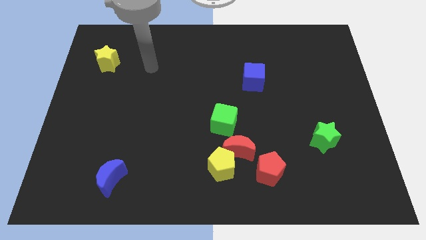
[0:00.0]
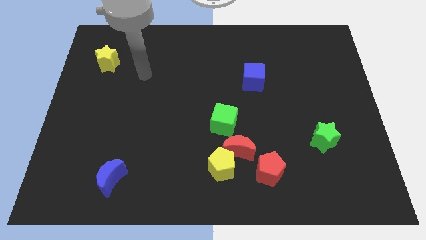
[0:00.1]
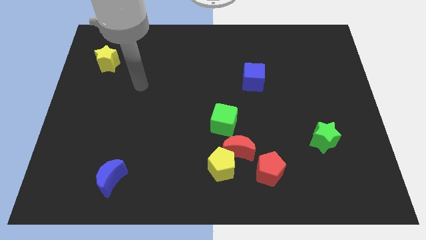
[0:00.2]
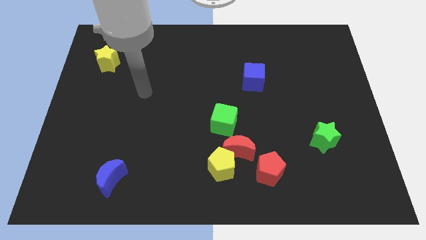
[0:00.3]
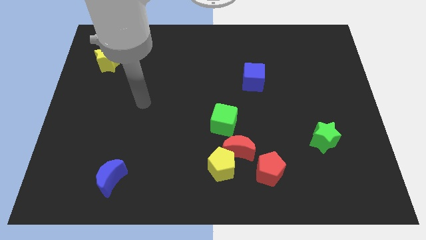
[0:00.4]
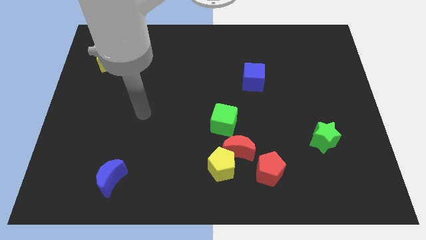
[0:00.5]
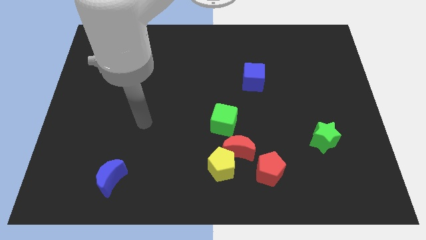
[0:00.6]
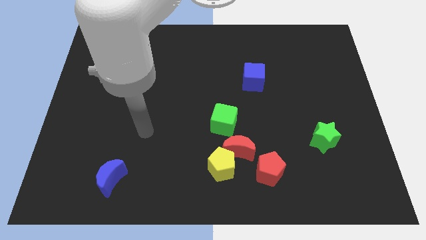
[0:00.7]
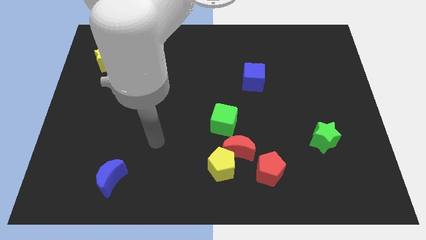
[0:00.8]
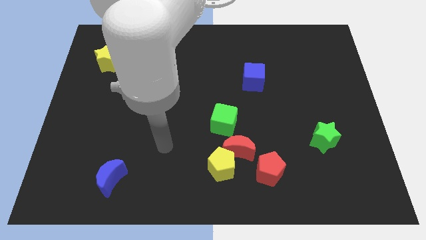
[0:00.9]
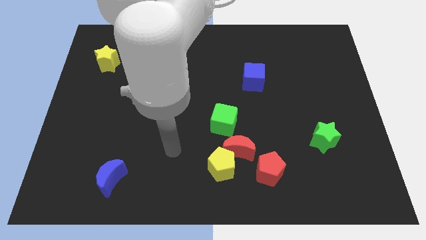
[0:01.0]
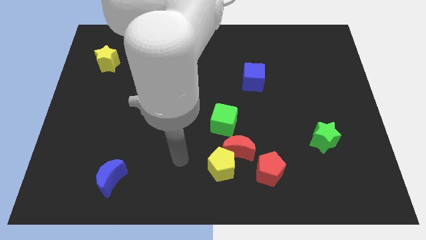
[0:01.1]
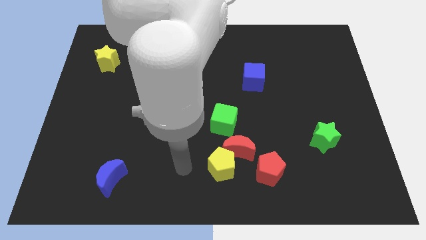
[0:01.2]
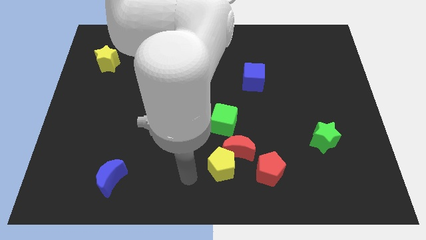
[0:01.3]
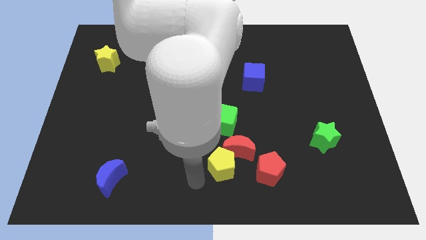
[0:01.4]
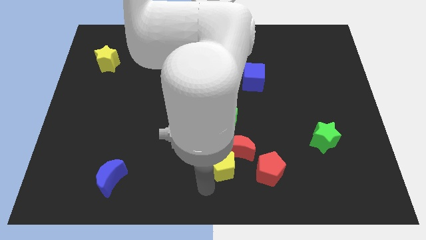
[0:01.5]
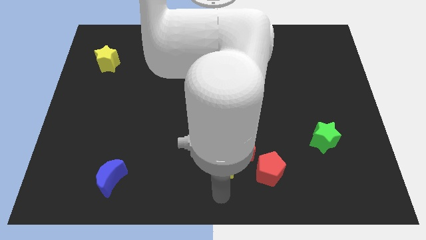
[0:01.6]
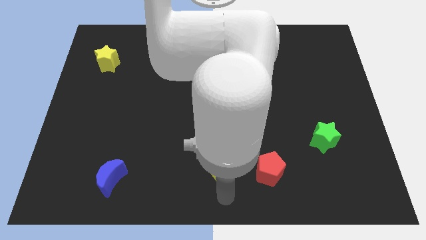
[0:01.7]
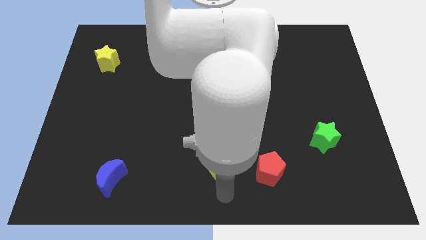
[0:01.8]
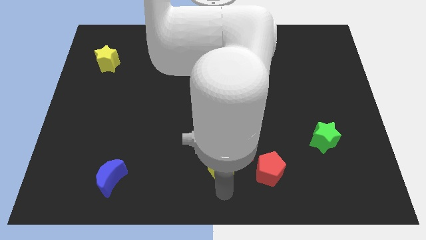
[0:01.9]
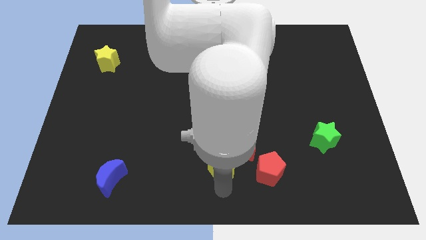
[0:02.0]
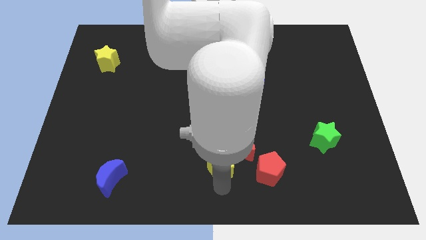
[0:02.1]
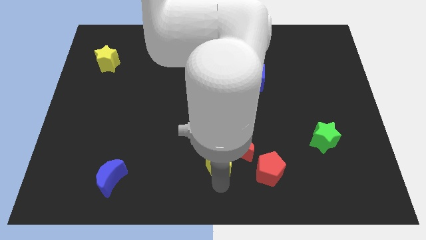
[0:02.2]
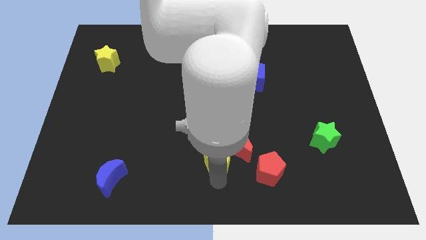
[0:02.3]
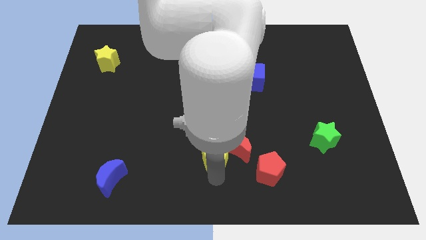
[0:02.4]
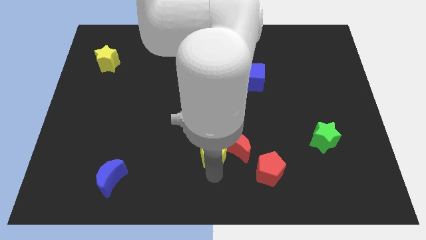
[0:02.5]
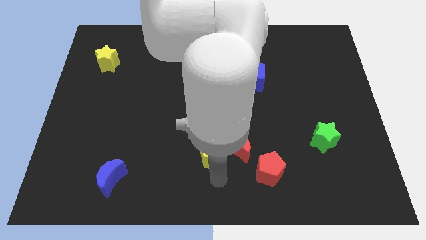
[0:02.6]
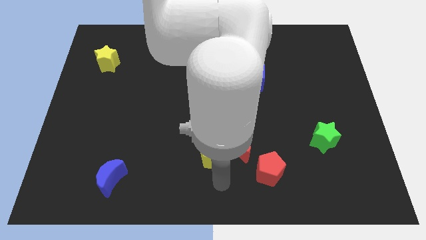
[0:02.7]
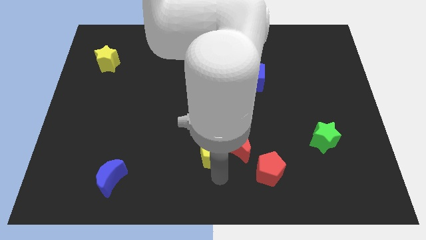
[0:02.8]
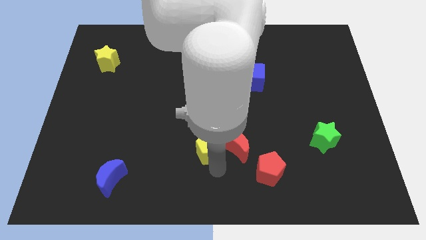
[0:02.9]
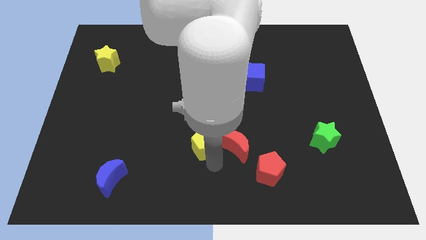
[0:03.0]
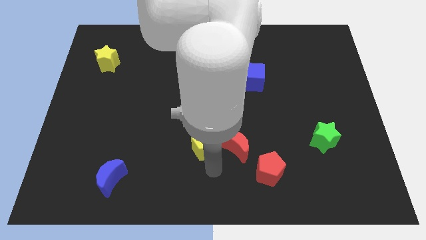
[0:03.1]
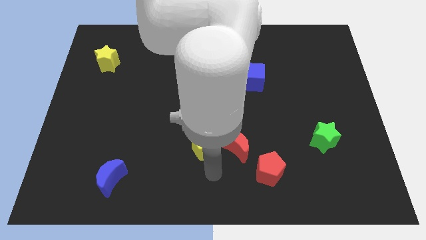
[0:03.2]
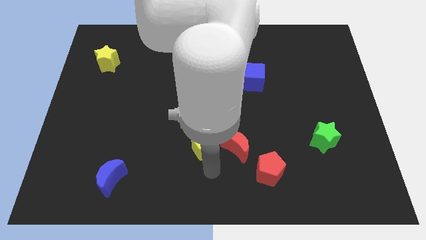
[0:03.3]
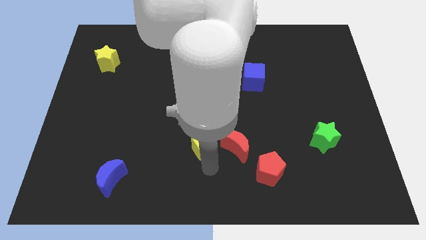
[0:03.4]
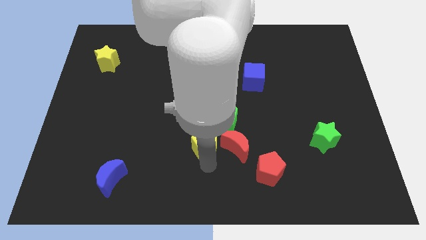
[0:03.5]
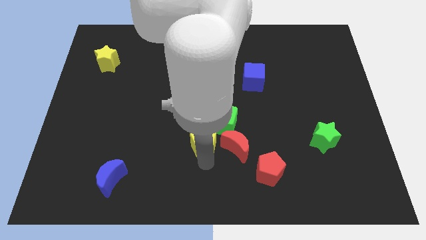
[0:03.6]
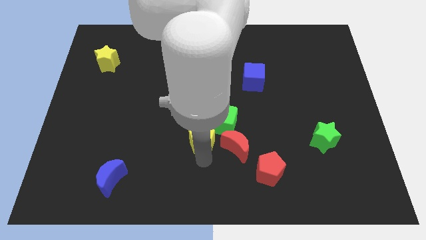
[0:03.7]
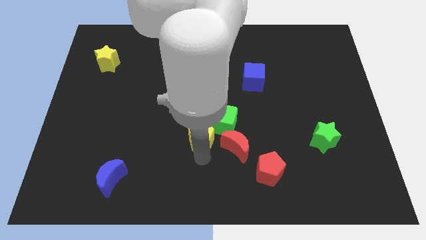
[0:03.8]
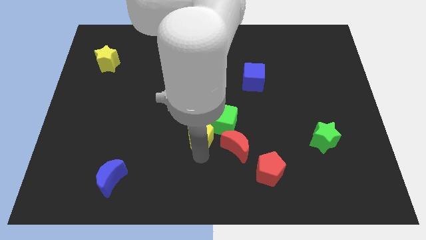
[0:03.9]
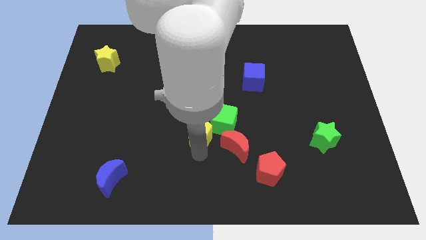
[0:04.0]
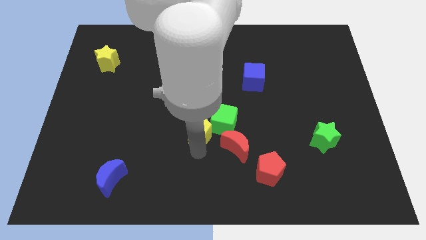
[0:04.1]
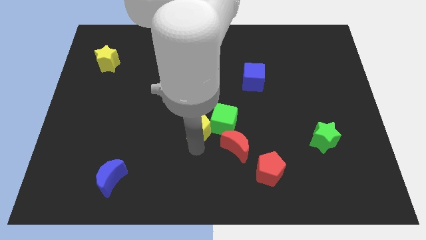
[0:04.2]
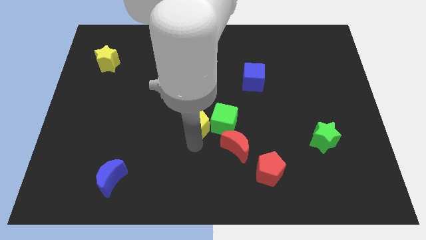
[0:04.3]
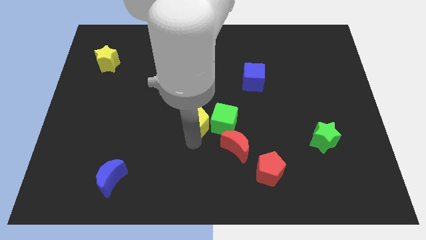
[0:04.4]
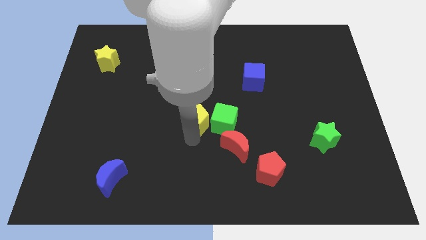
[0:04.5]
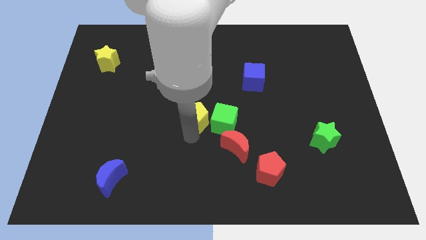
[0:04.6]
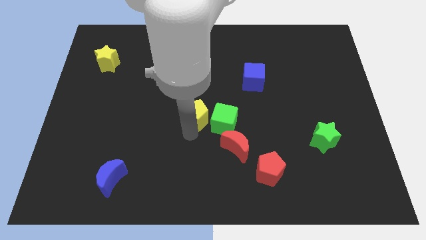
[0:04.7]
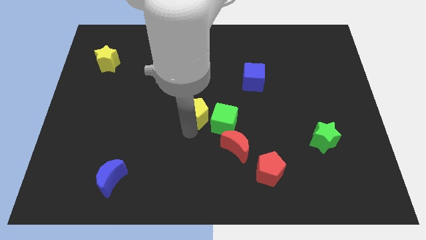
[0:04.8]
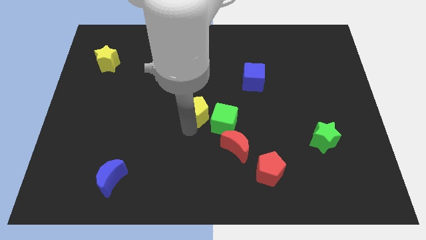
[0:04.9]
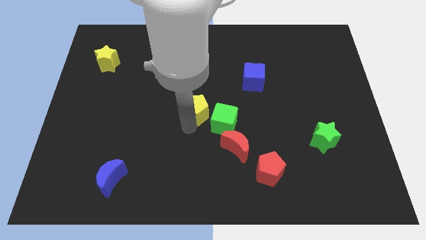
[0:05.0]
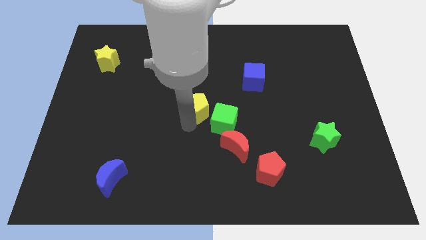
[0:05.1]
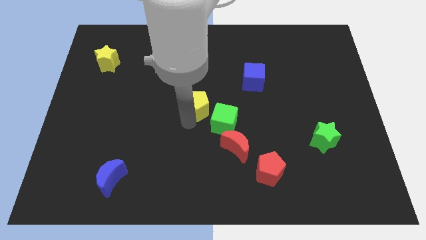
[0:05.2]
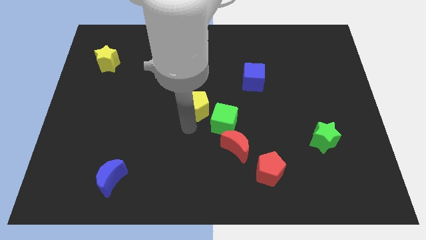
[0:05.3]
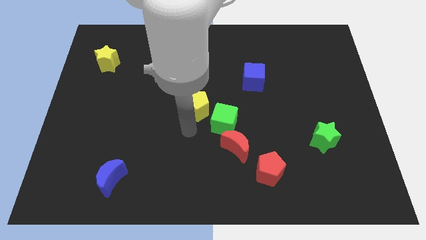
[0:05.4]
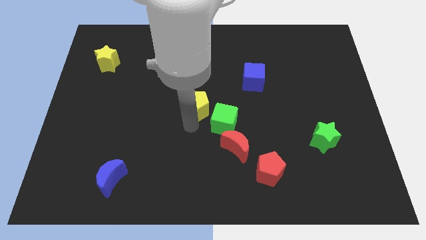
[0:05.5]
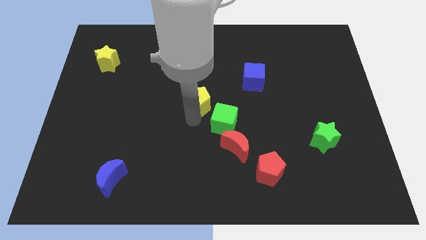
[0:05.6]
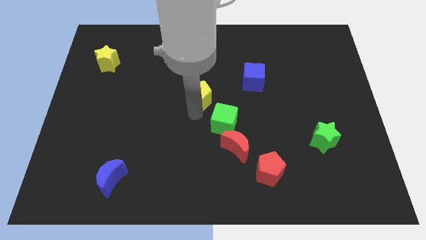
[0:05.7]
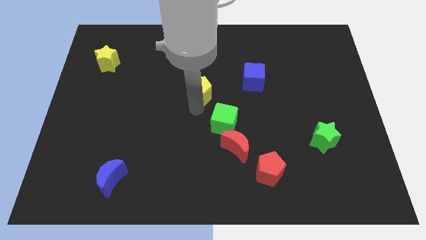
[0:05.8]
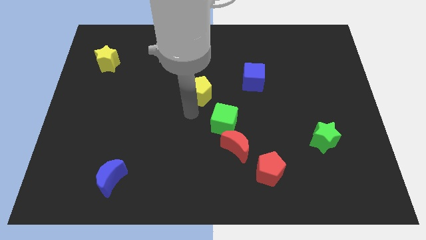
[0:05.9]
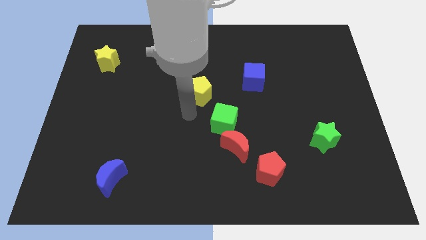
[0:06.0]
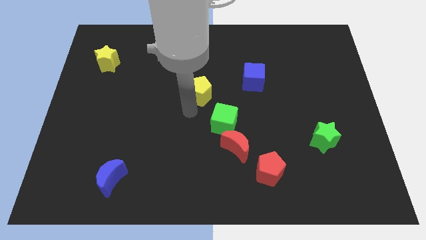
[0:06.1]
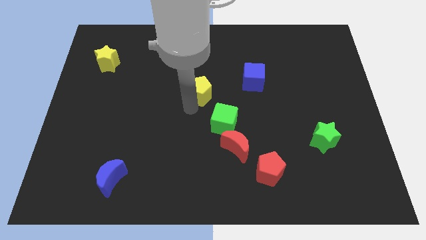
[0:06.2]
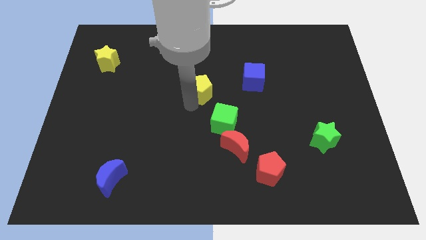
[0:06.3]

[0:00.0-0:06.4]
push the yellow pentagon up

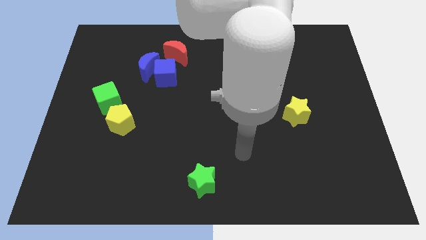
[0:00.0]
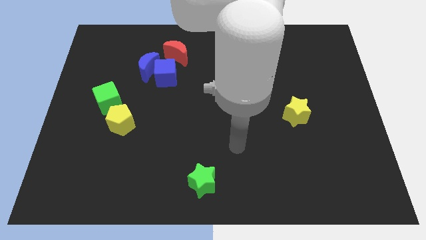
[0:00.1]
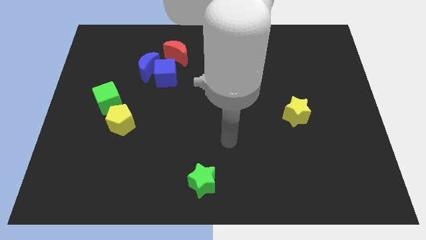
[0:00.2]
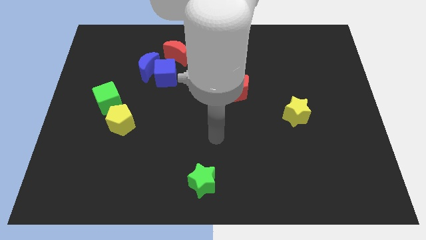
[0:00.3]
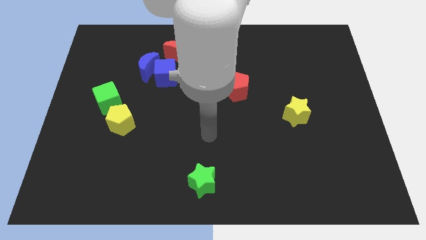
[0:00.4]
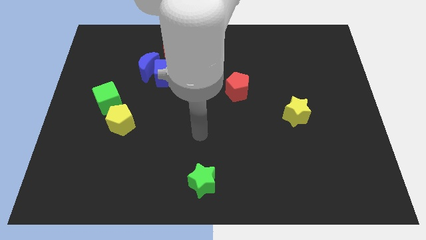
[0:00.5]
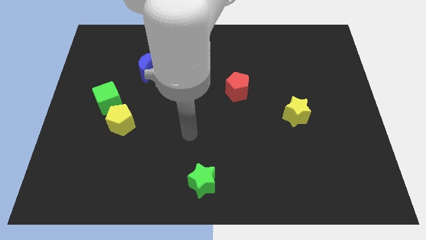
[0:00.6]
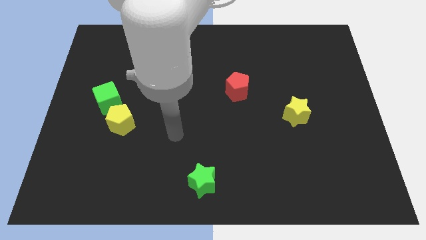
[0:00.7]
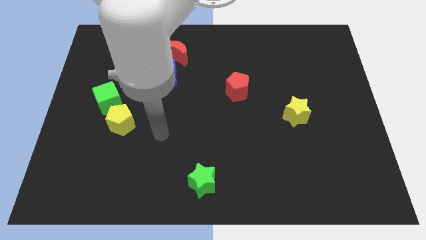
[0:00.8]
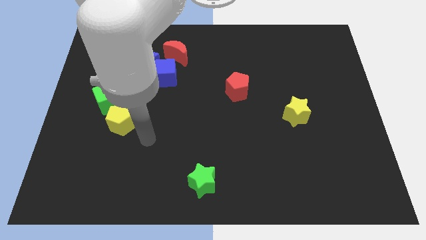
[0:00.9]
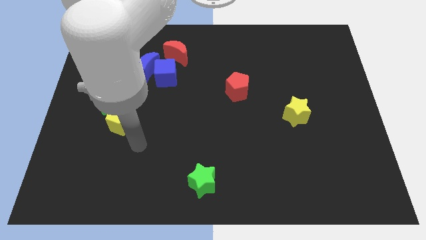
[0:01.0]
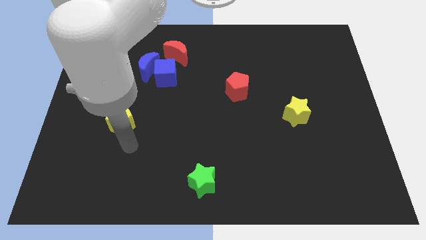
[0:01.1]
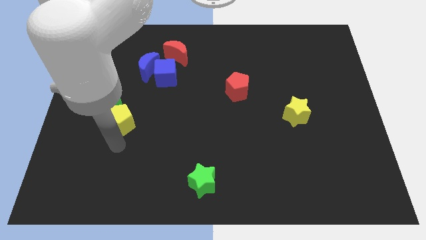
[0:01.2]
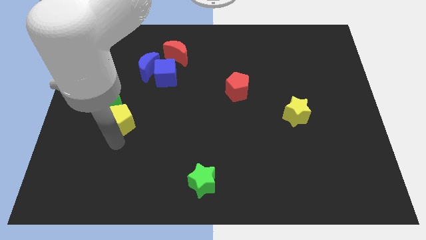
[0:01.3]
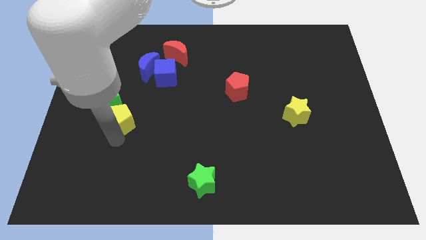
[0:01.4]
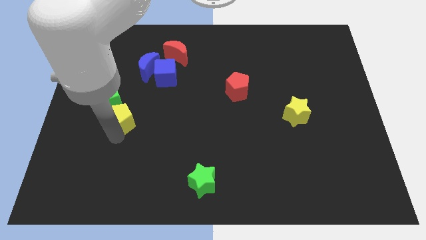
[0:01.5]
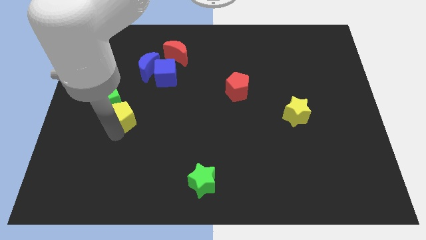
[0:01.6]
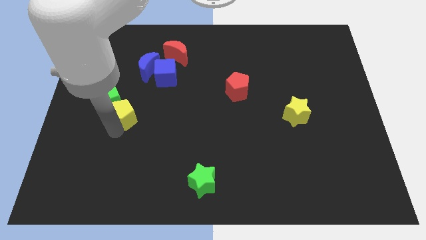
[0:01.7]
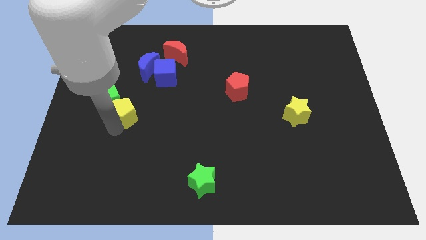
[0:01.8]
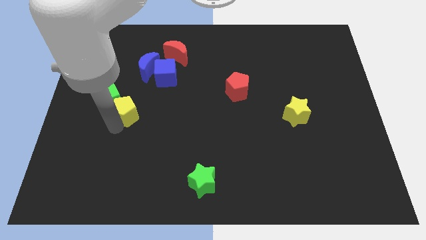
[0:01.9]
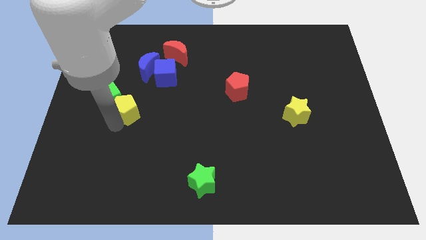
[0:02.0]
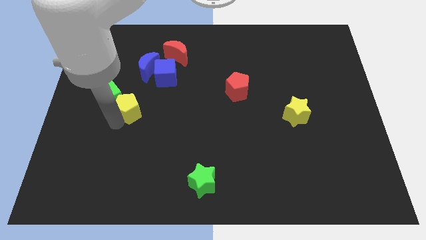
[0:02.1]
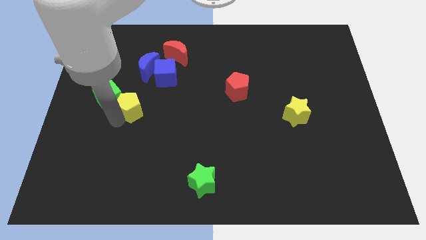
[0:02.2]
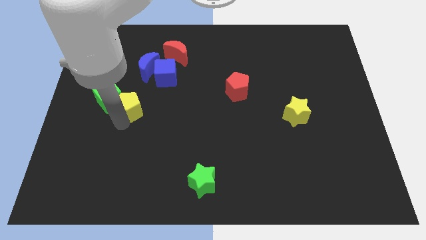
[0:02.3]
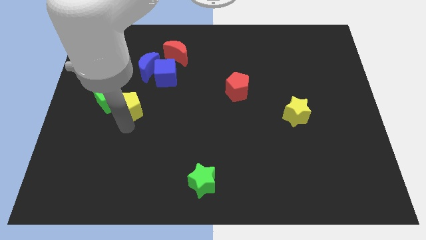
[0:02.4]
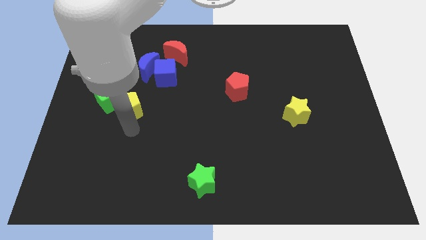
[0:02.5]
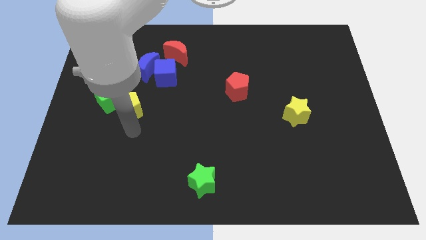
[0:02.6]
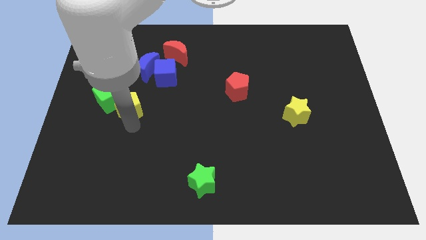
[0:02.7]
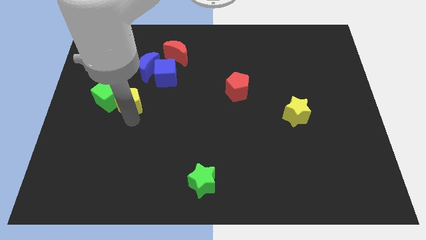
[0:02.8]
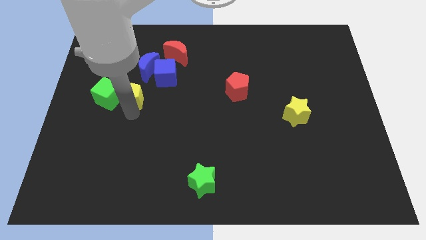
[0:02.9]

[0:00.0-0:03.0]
move the yellow pentagon upwards a little bit
